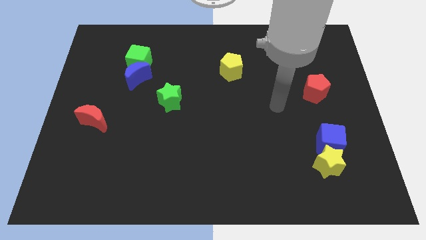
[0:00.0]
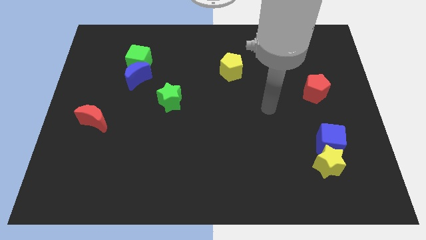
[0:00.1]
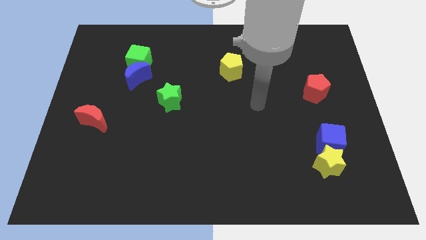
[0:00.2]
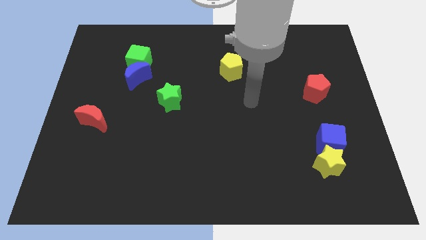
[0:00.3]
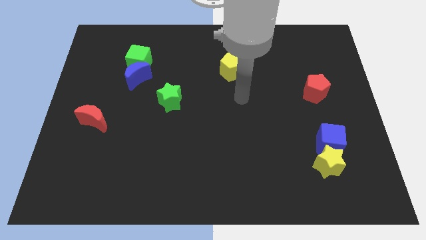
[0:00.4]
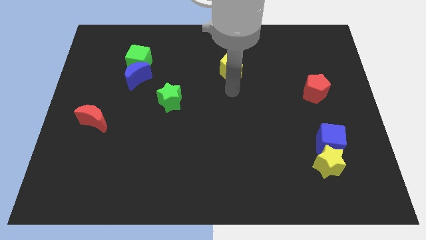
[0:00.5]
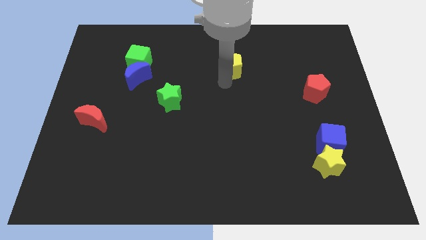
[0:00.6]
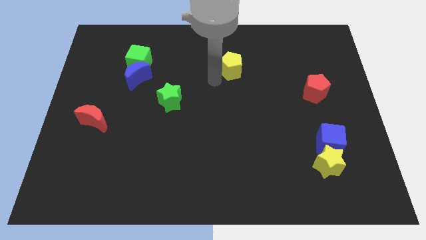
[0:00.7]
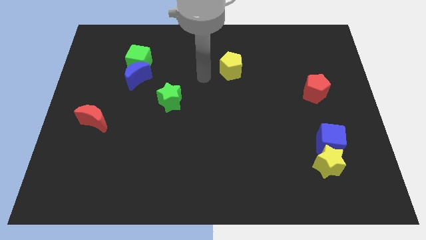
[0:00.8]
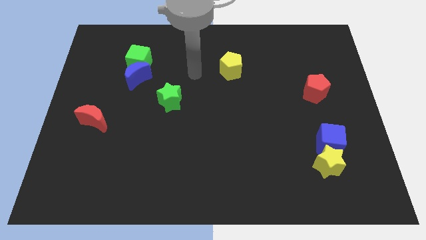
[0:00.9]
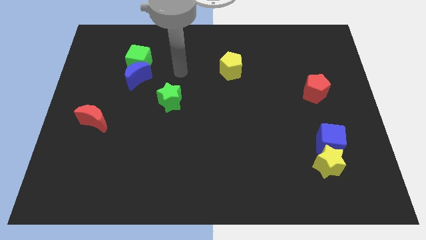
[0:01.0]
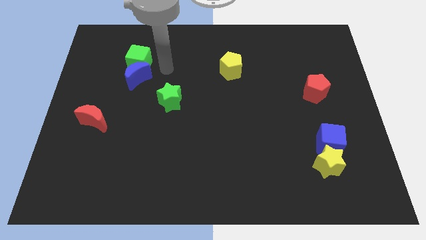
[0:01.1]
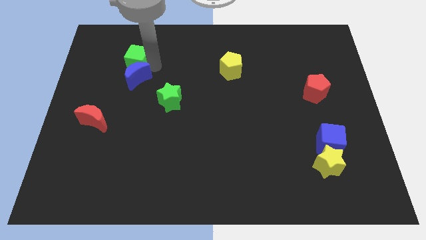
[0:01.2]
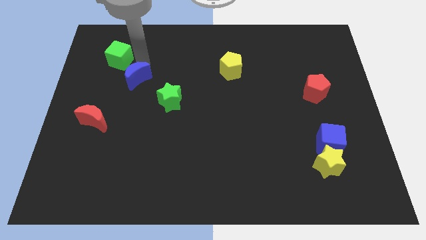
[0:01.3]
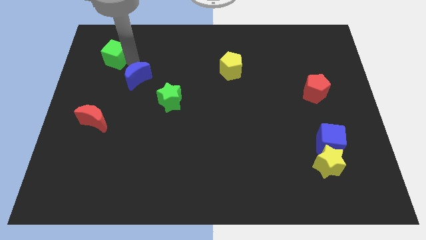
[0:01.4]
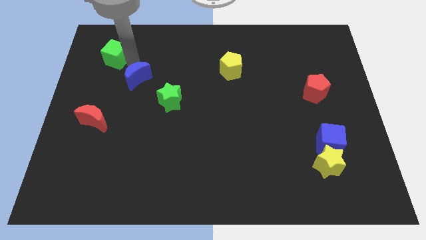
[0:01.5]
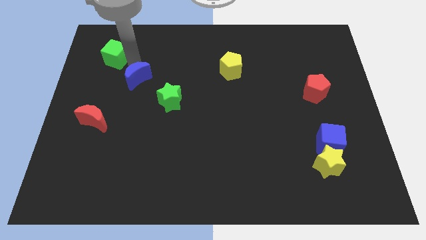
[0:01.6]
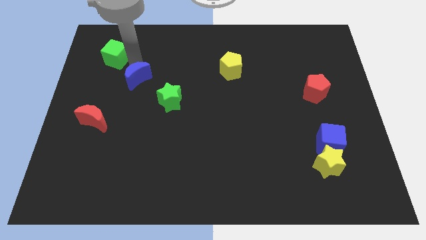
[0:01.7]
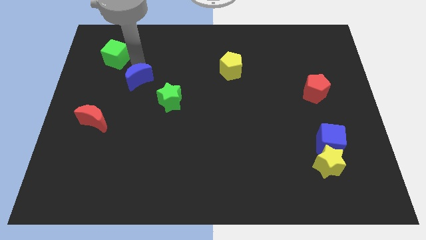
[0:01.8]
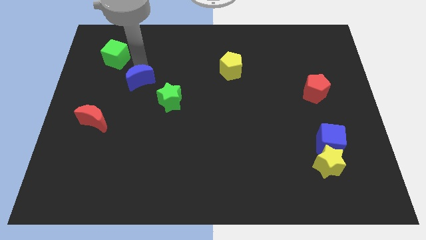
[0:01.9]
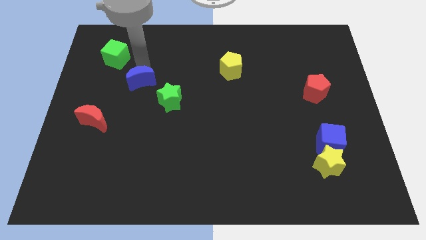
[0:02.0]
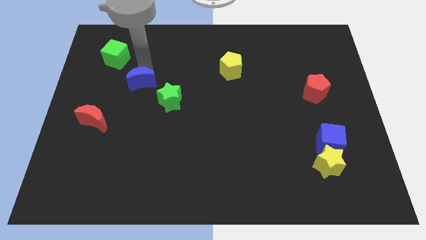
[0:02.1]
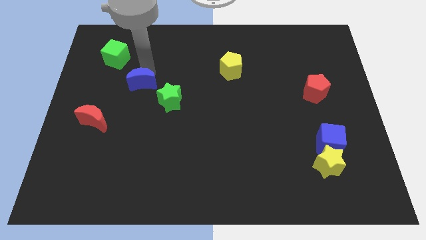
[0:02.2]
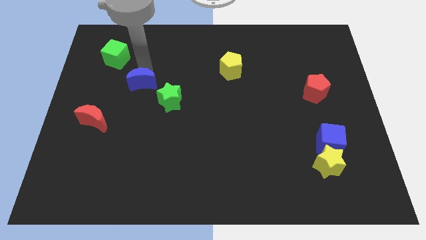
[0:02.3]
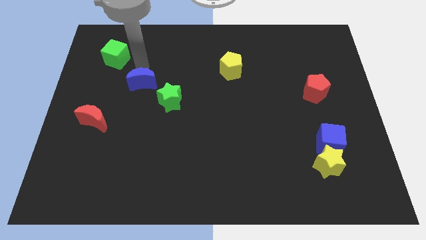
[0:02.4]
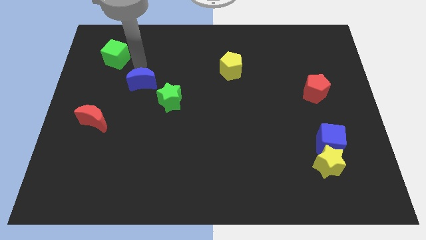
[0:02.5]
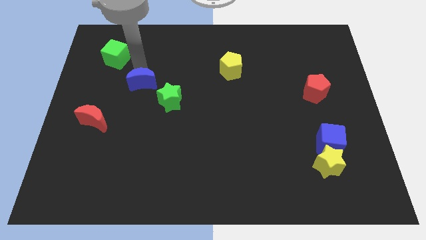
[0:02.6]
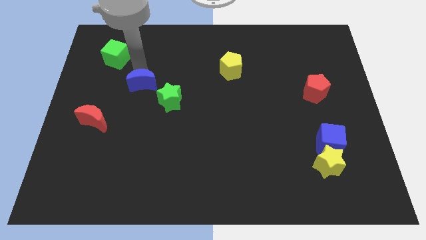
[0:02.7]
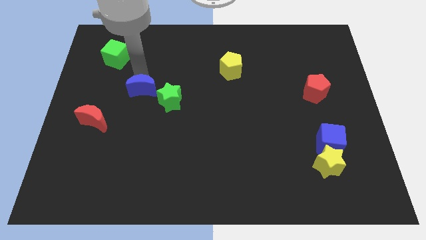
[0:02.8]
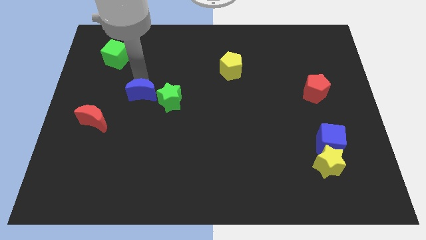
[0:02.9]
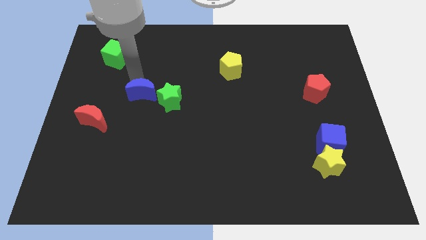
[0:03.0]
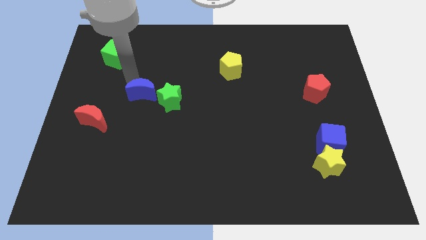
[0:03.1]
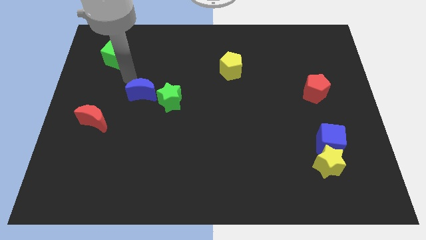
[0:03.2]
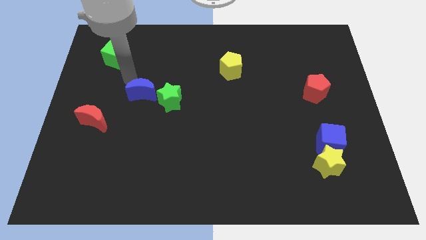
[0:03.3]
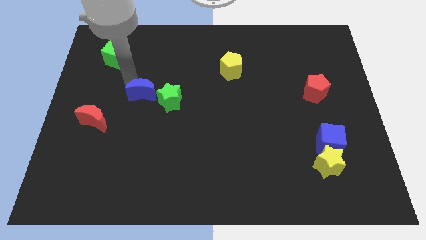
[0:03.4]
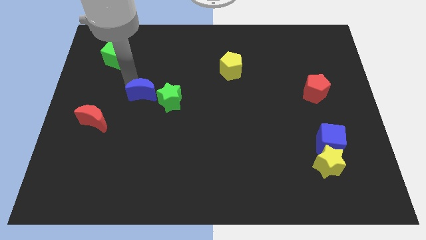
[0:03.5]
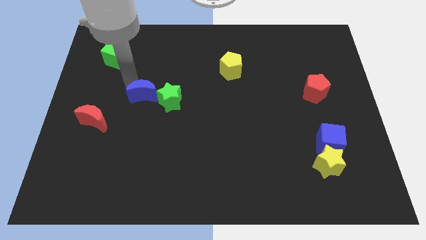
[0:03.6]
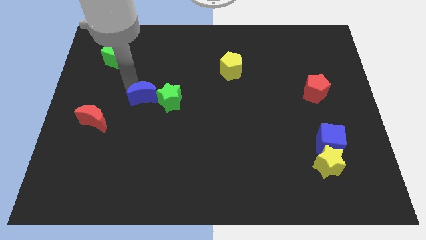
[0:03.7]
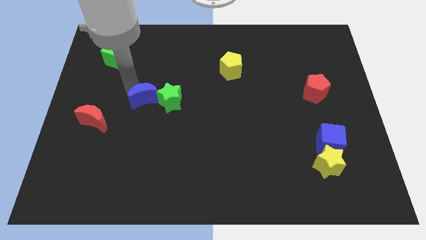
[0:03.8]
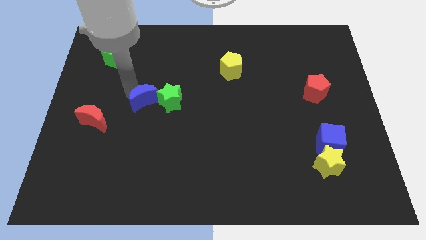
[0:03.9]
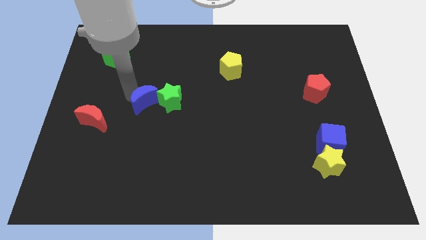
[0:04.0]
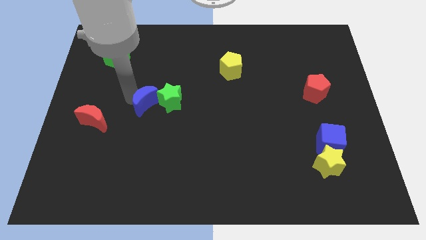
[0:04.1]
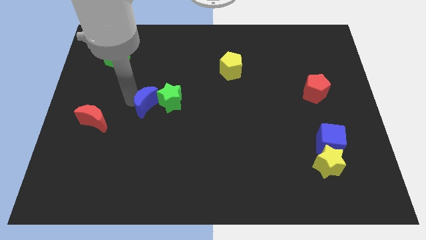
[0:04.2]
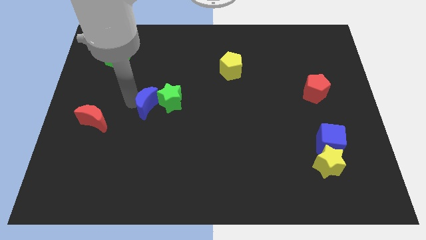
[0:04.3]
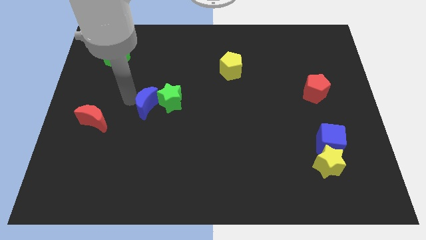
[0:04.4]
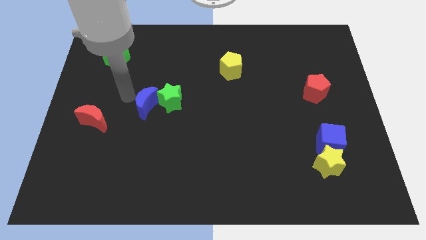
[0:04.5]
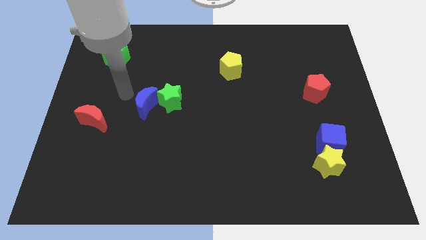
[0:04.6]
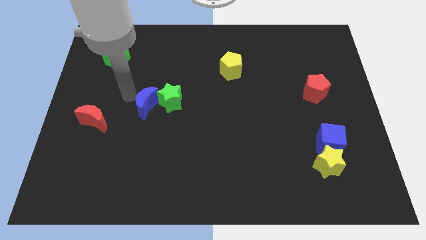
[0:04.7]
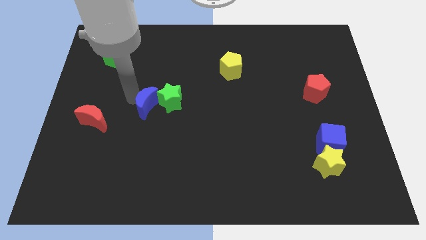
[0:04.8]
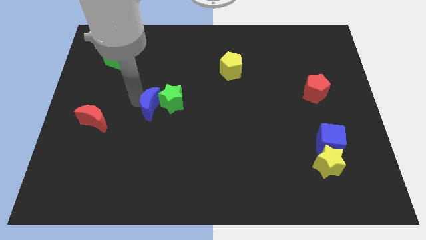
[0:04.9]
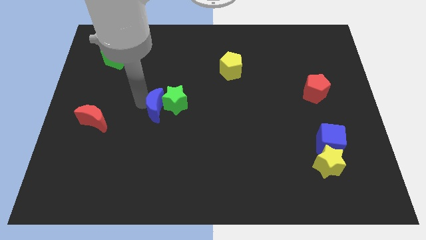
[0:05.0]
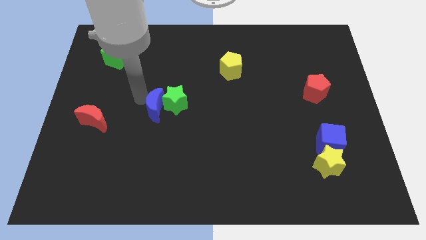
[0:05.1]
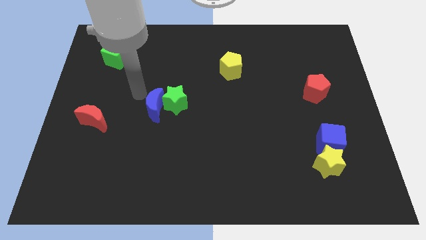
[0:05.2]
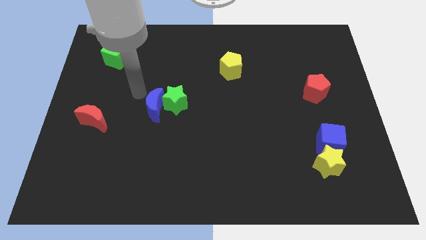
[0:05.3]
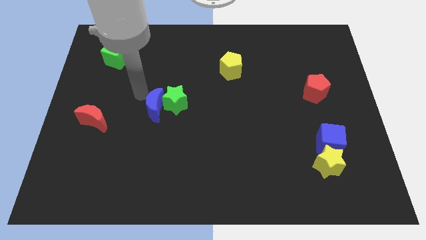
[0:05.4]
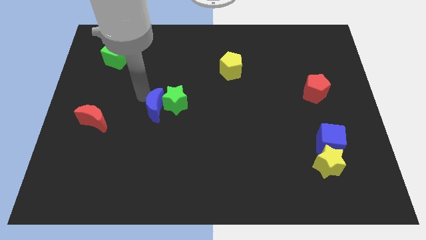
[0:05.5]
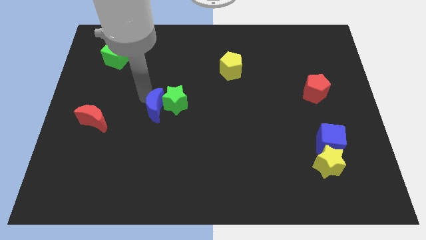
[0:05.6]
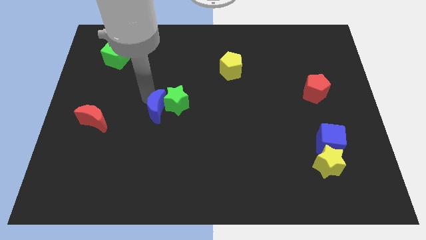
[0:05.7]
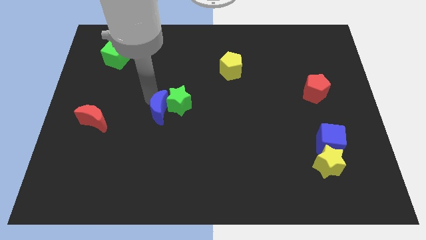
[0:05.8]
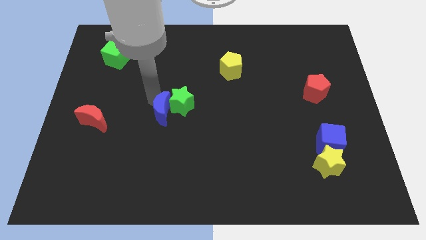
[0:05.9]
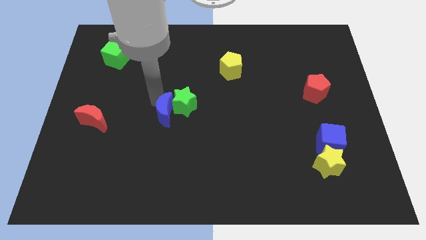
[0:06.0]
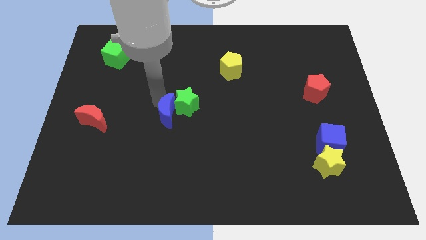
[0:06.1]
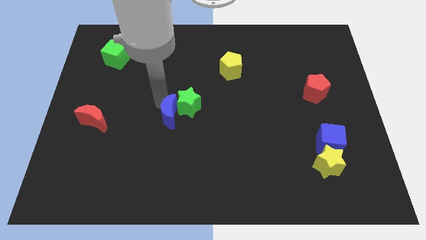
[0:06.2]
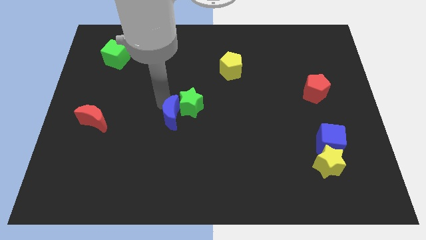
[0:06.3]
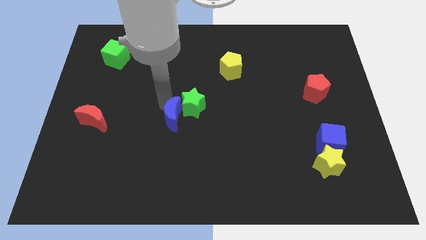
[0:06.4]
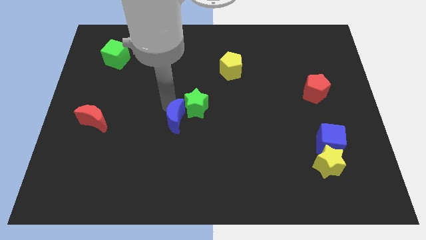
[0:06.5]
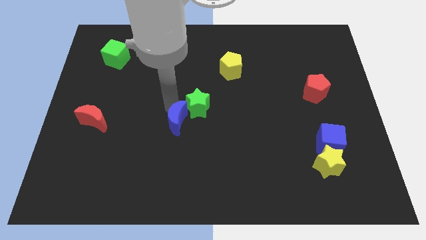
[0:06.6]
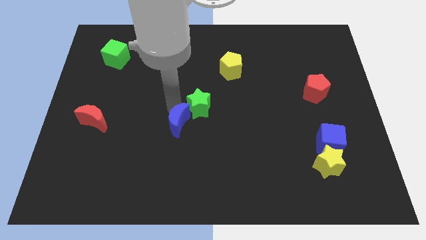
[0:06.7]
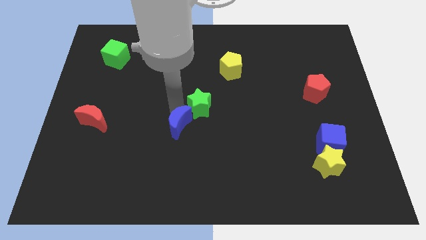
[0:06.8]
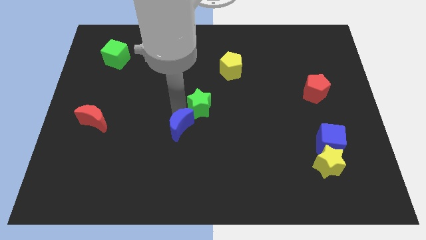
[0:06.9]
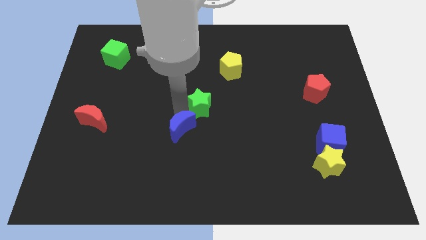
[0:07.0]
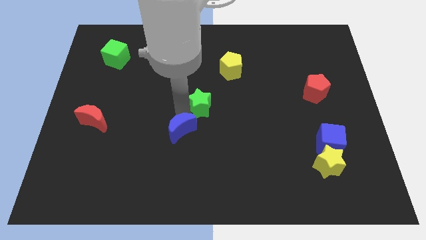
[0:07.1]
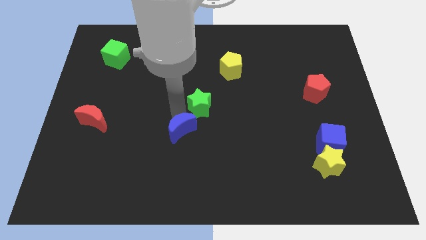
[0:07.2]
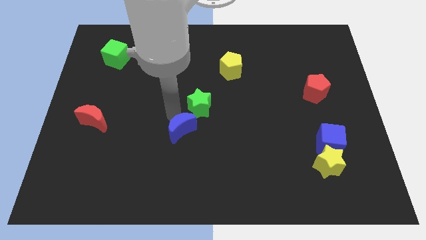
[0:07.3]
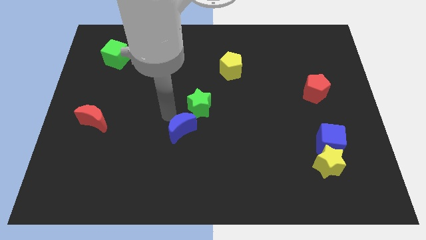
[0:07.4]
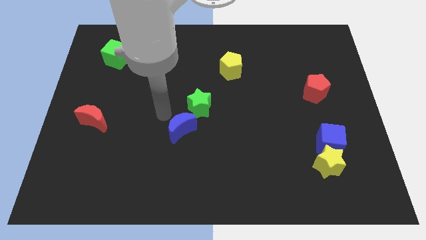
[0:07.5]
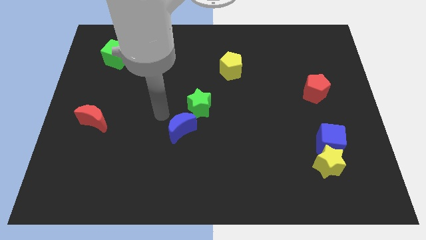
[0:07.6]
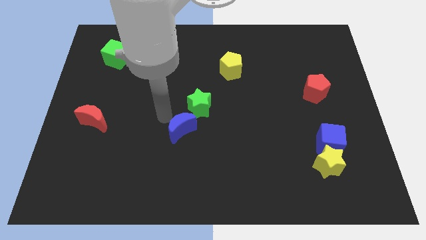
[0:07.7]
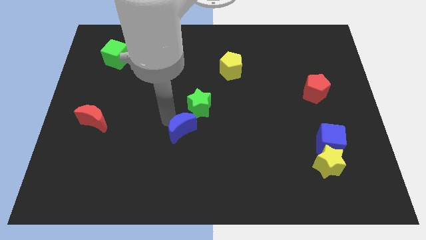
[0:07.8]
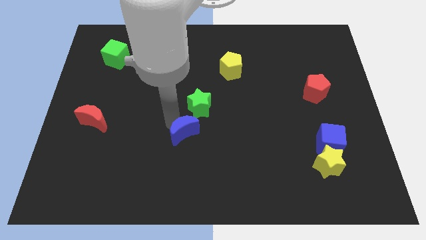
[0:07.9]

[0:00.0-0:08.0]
move the blue moon downwards and to the right diagonally
